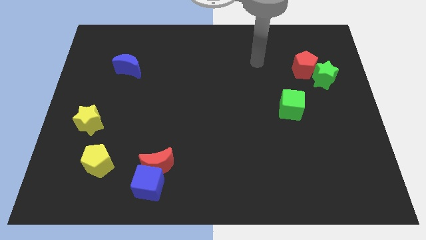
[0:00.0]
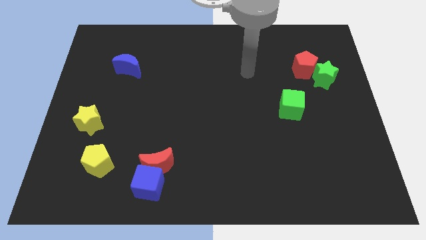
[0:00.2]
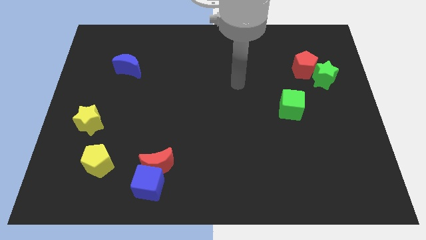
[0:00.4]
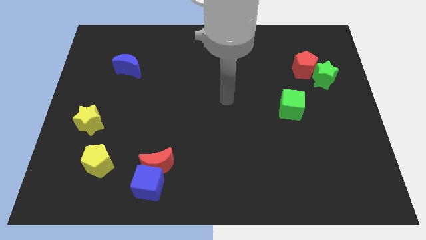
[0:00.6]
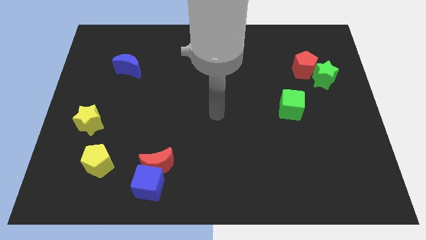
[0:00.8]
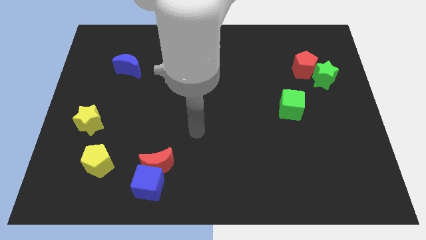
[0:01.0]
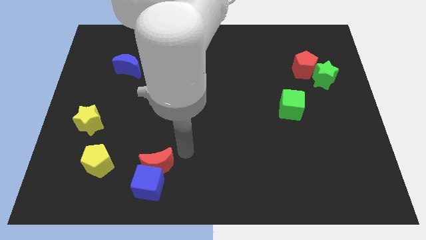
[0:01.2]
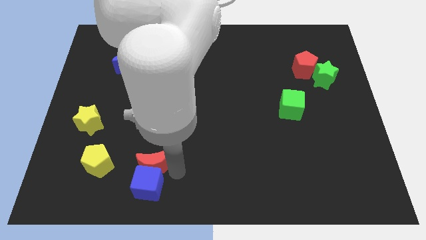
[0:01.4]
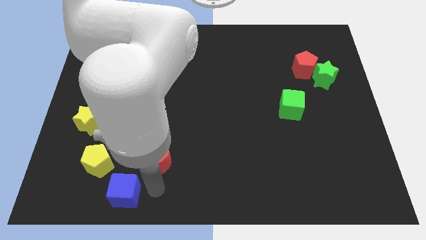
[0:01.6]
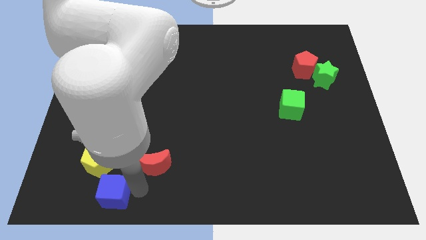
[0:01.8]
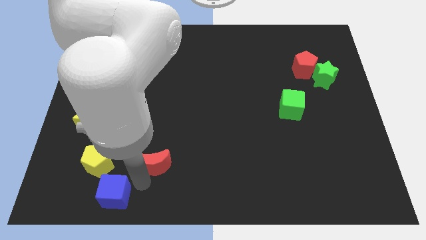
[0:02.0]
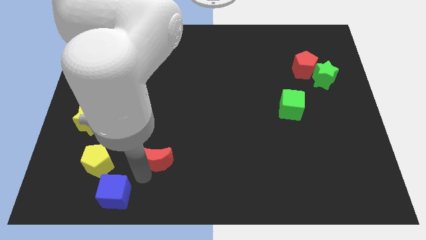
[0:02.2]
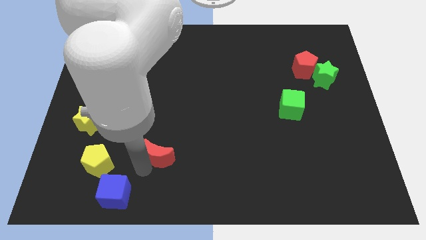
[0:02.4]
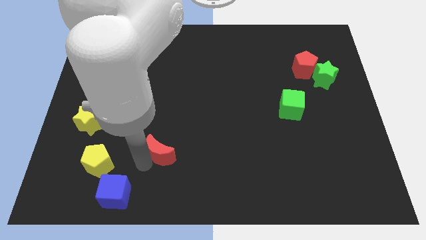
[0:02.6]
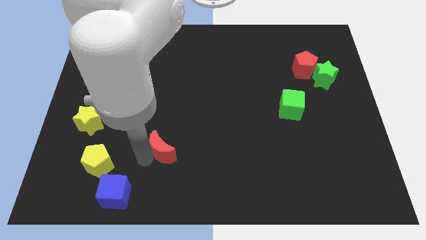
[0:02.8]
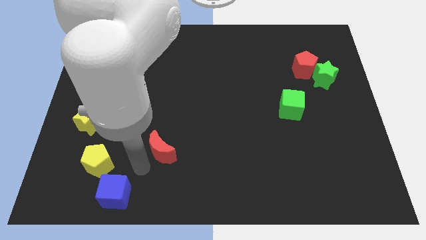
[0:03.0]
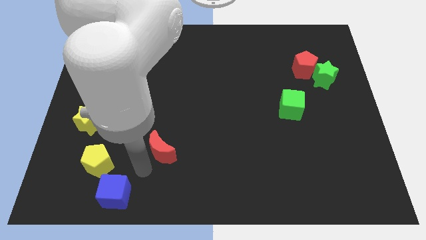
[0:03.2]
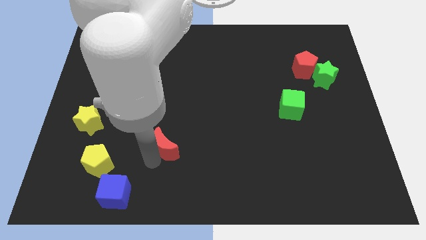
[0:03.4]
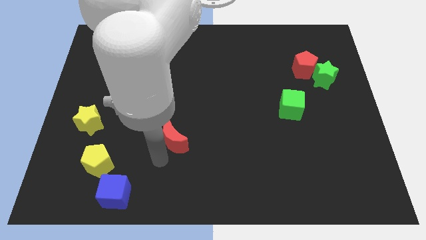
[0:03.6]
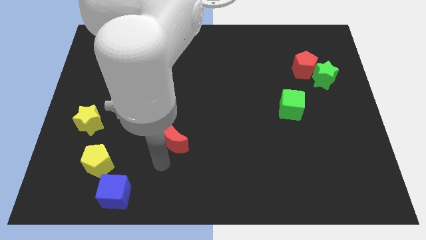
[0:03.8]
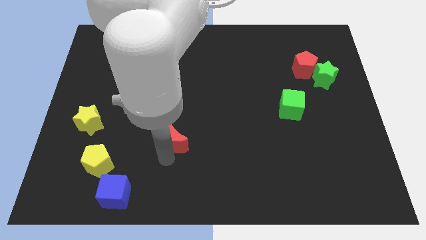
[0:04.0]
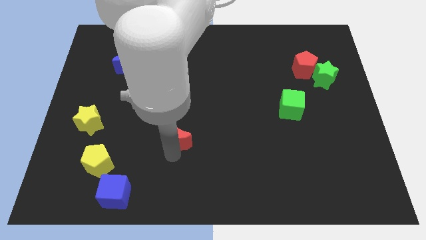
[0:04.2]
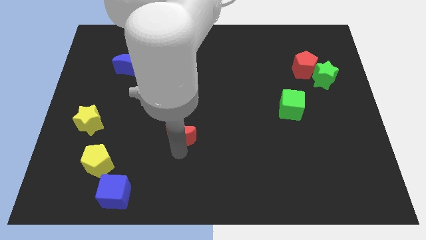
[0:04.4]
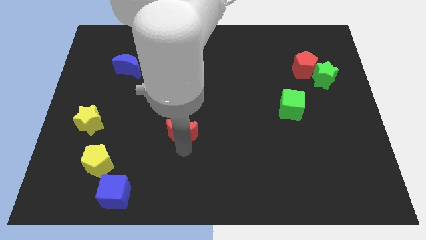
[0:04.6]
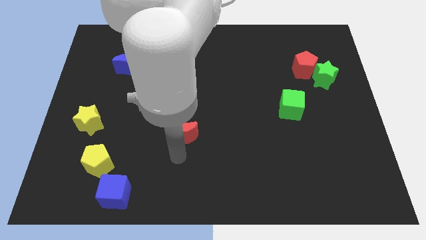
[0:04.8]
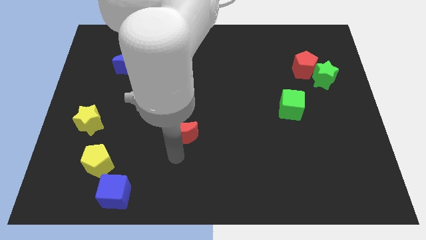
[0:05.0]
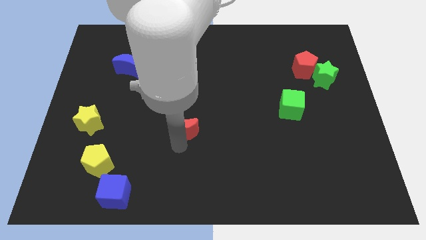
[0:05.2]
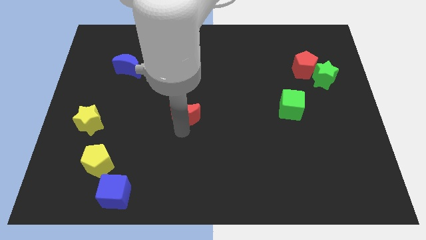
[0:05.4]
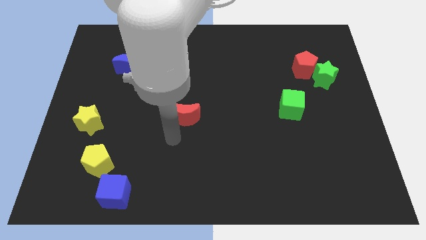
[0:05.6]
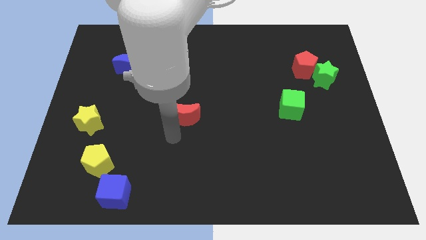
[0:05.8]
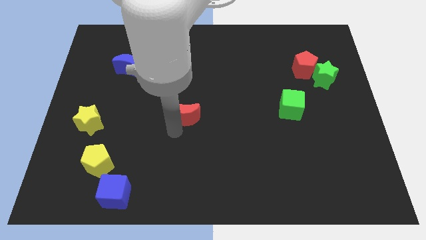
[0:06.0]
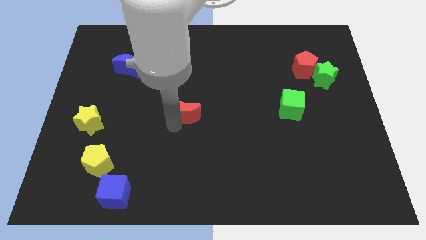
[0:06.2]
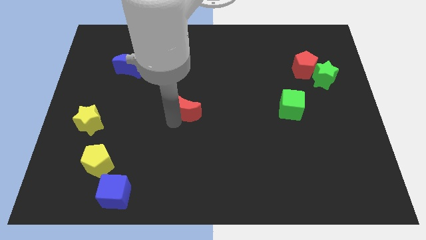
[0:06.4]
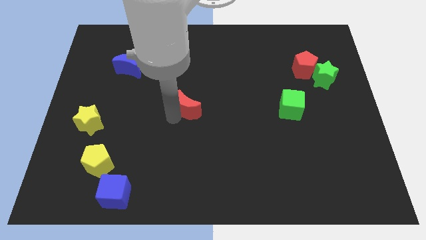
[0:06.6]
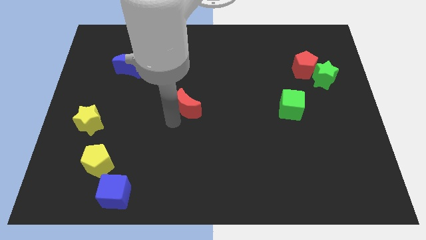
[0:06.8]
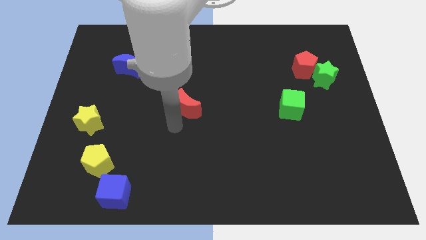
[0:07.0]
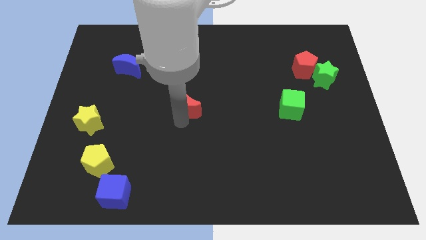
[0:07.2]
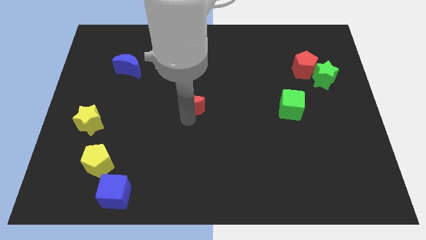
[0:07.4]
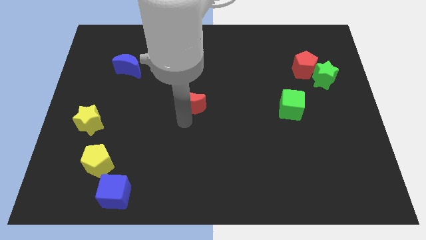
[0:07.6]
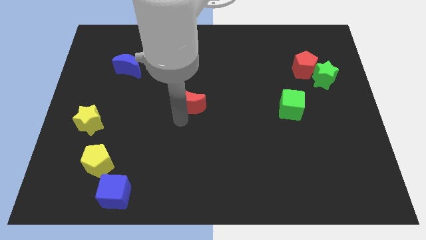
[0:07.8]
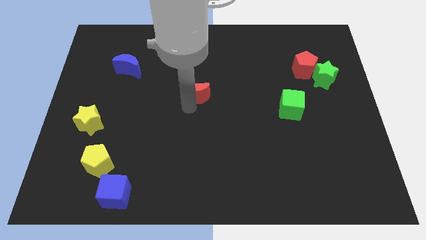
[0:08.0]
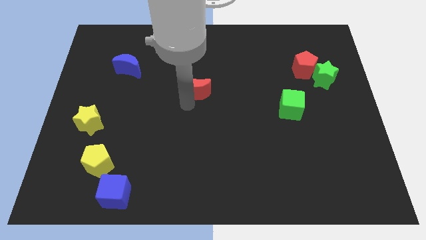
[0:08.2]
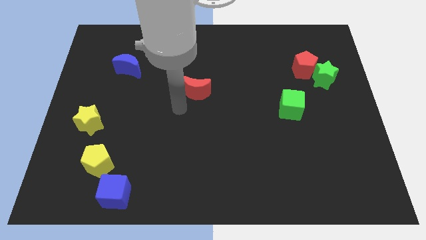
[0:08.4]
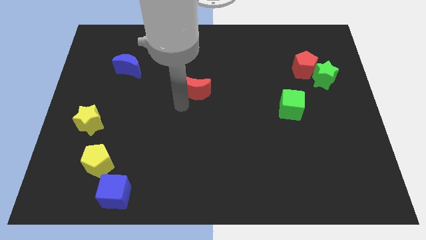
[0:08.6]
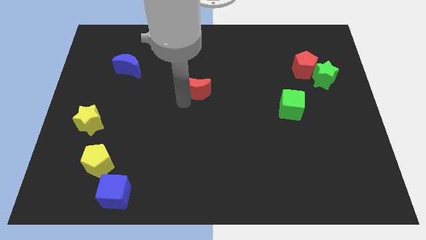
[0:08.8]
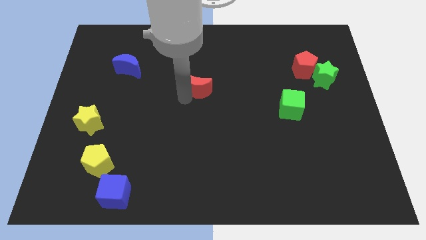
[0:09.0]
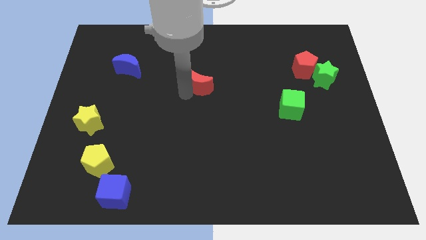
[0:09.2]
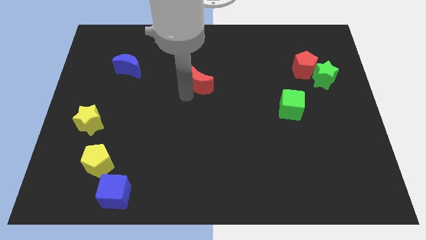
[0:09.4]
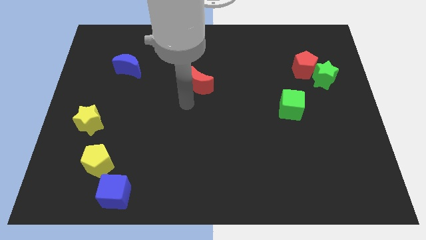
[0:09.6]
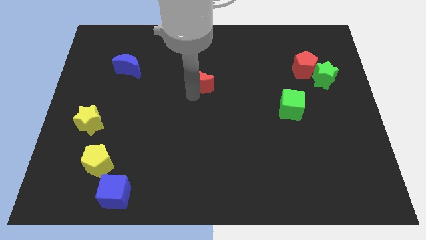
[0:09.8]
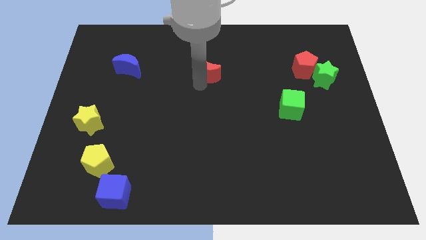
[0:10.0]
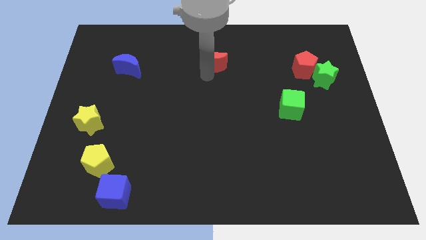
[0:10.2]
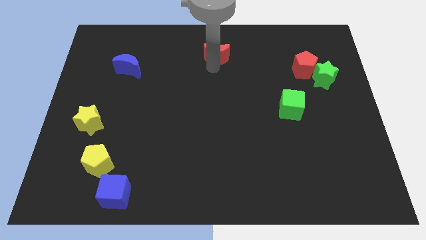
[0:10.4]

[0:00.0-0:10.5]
slide the red moon to the top side
